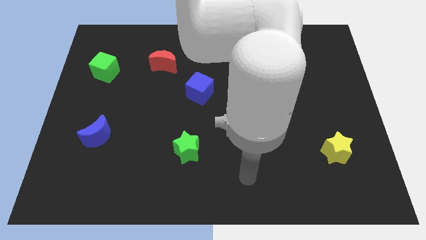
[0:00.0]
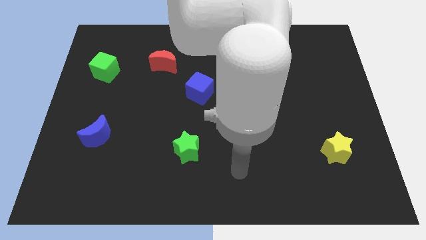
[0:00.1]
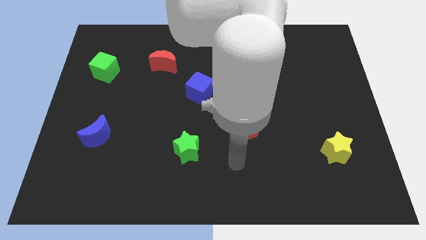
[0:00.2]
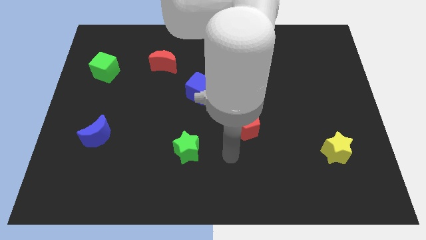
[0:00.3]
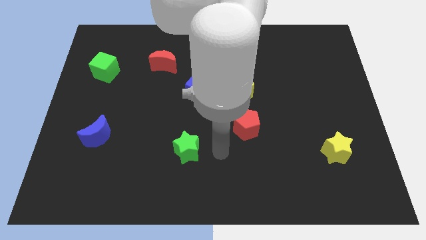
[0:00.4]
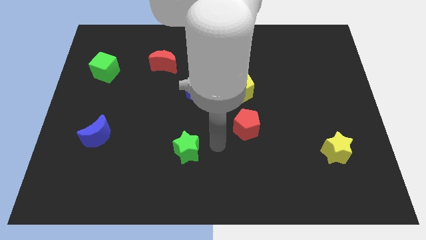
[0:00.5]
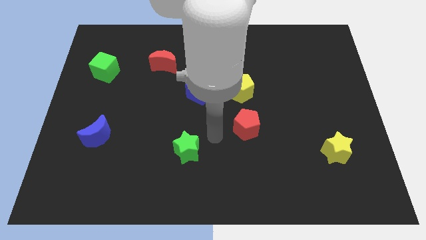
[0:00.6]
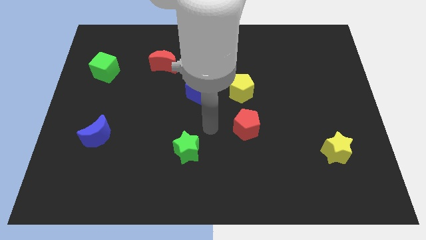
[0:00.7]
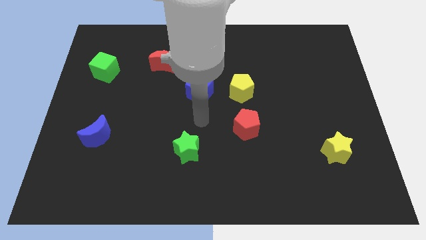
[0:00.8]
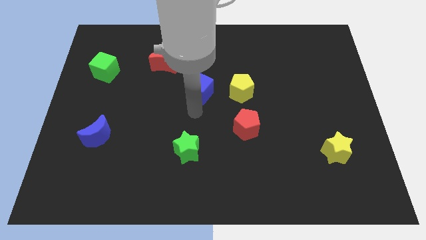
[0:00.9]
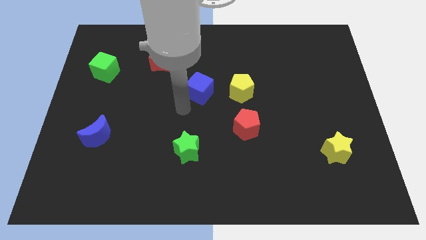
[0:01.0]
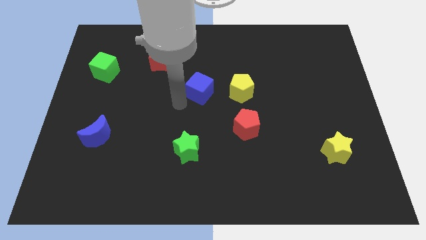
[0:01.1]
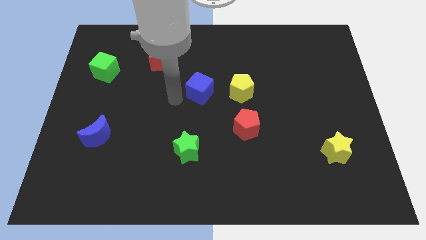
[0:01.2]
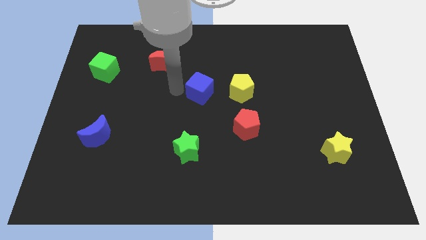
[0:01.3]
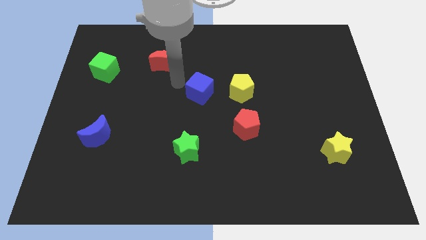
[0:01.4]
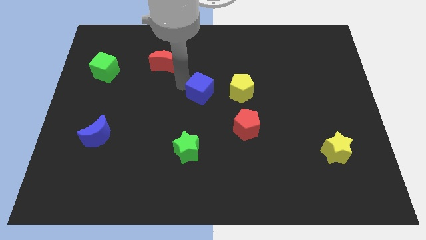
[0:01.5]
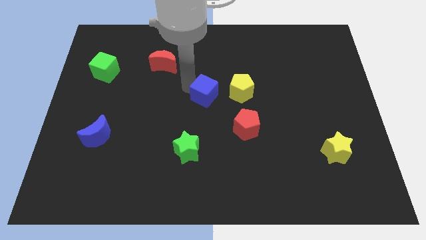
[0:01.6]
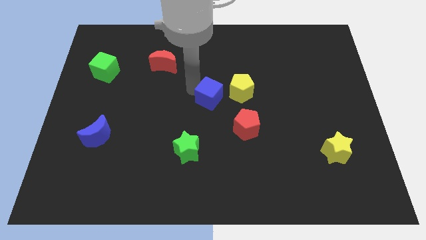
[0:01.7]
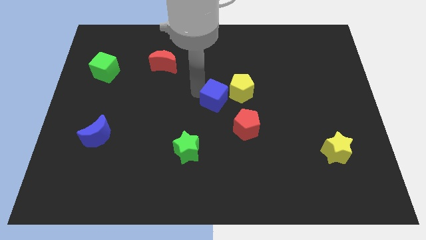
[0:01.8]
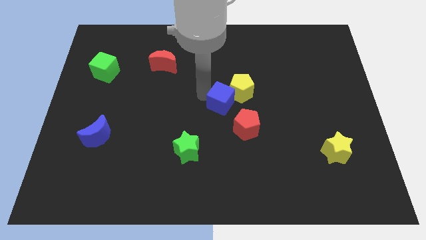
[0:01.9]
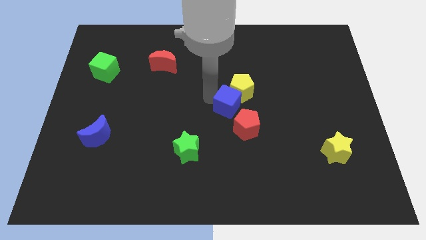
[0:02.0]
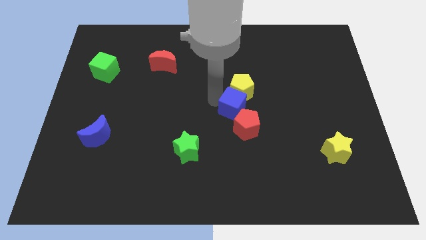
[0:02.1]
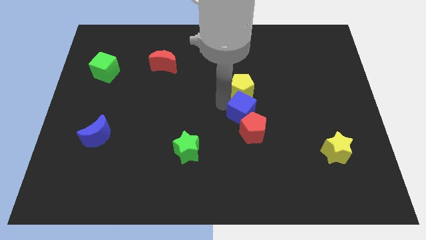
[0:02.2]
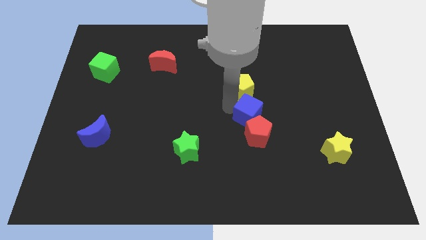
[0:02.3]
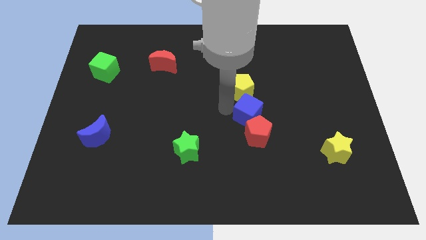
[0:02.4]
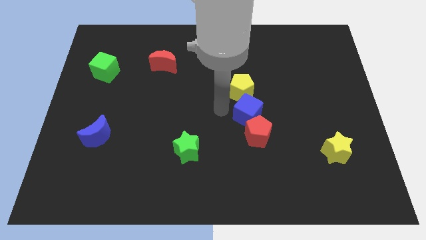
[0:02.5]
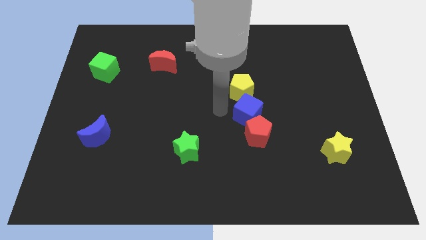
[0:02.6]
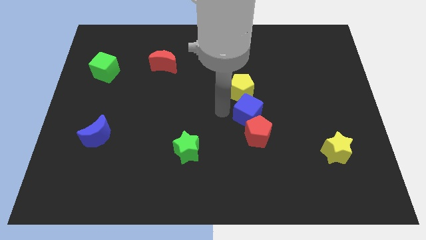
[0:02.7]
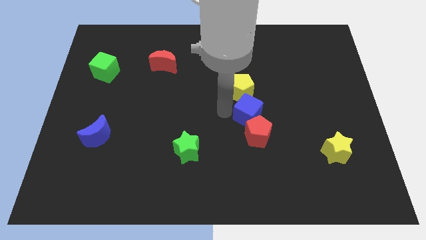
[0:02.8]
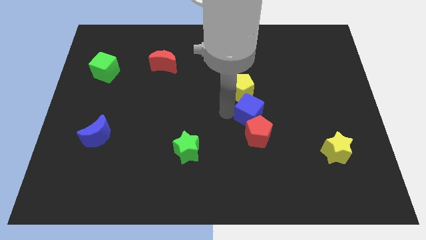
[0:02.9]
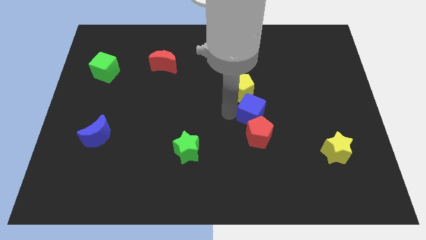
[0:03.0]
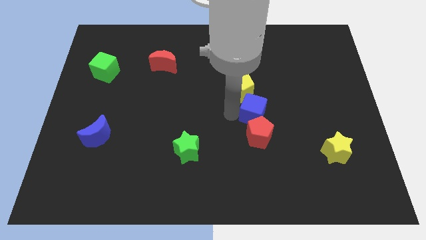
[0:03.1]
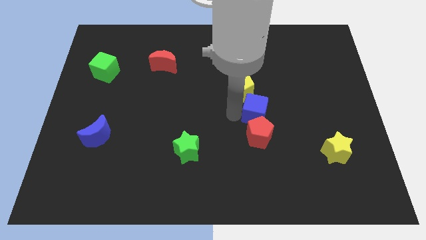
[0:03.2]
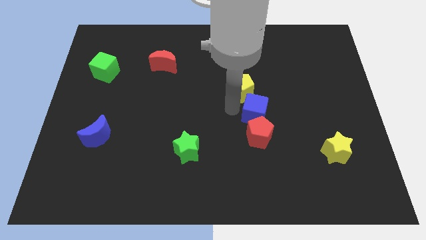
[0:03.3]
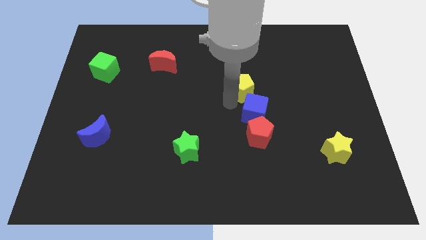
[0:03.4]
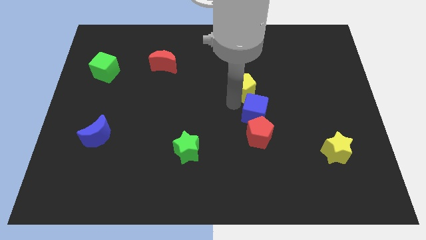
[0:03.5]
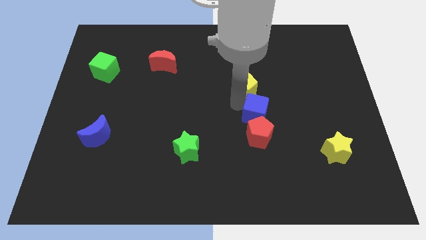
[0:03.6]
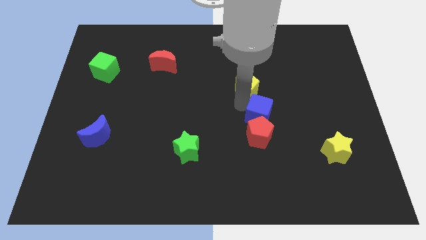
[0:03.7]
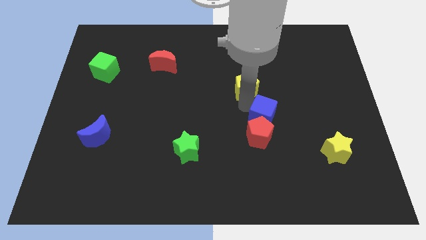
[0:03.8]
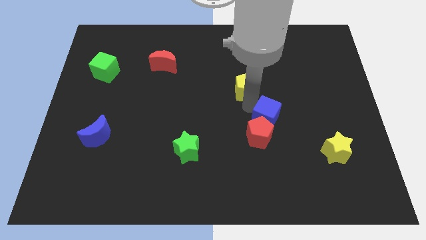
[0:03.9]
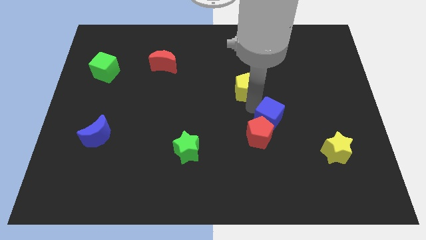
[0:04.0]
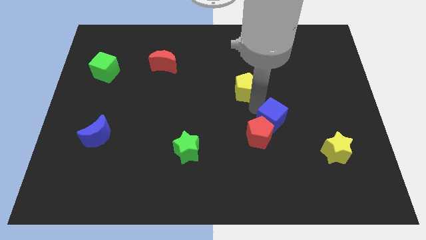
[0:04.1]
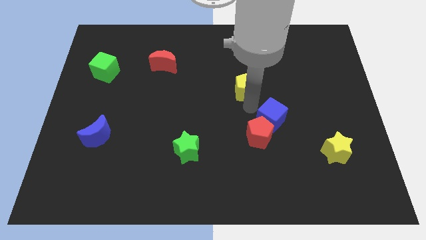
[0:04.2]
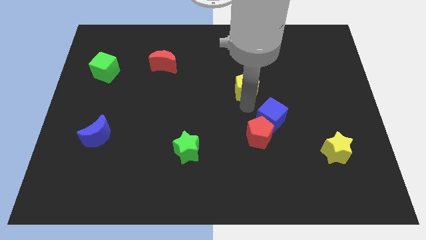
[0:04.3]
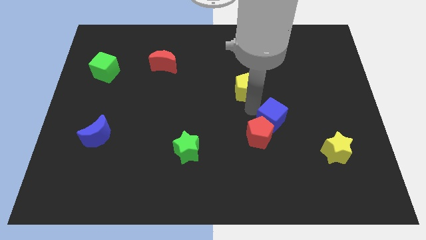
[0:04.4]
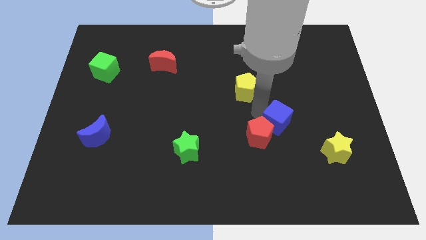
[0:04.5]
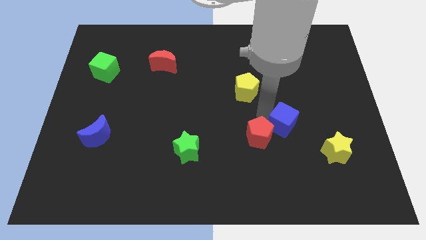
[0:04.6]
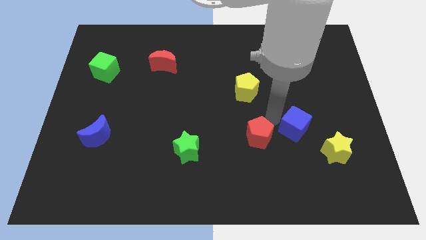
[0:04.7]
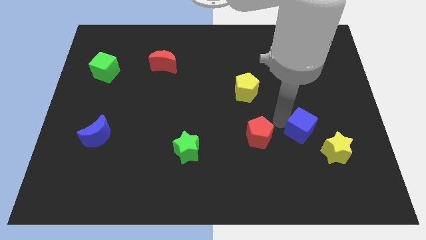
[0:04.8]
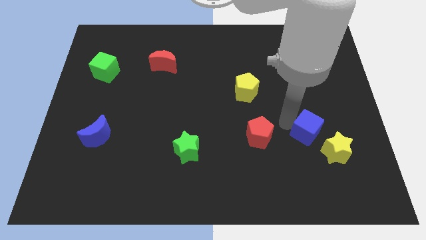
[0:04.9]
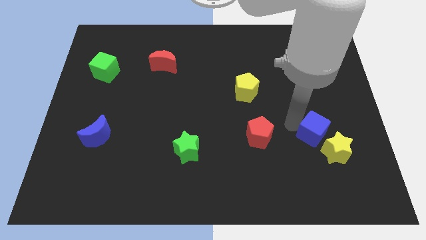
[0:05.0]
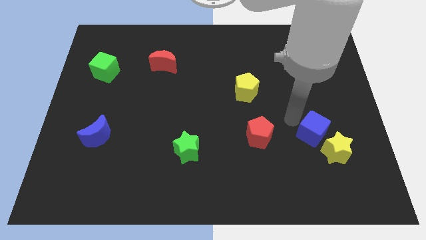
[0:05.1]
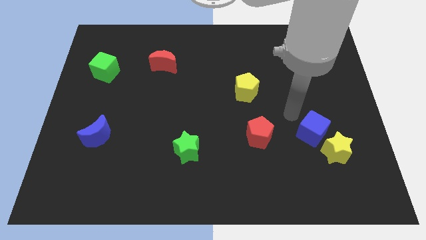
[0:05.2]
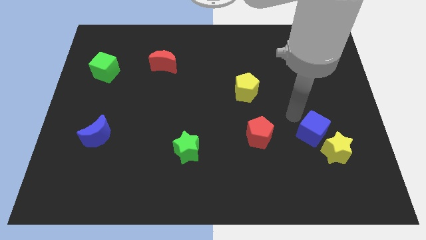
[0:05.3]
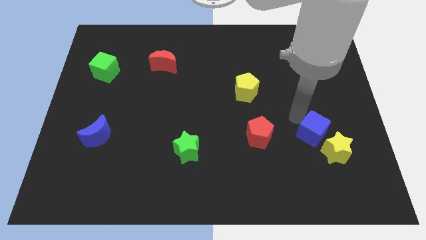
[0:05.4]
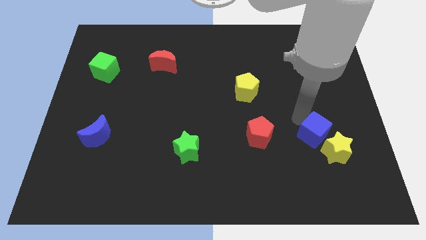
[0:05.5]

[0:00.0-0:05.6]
push the blue cube next to the yellow star

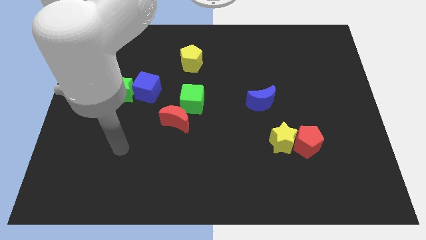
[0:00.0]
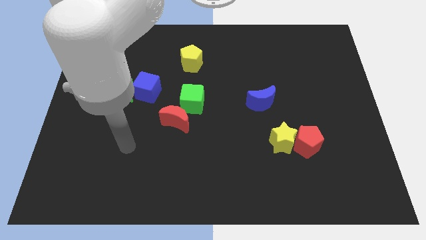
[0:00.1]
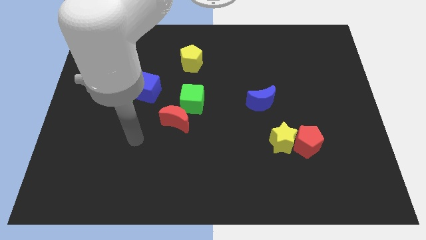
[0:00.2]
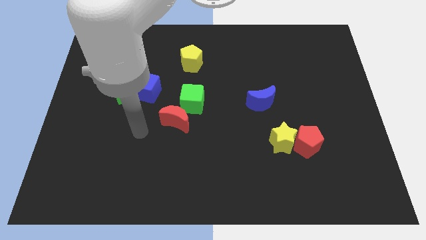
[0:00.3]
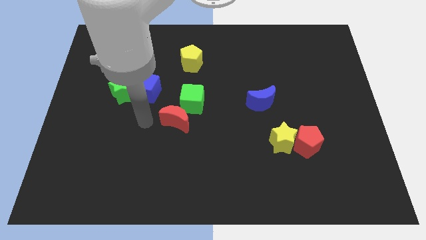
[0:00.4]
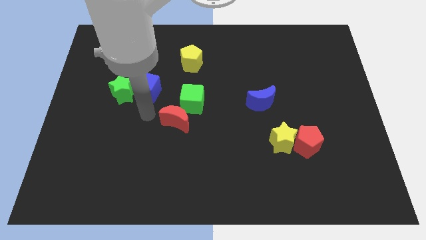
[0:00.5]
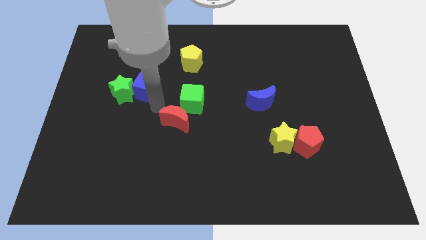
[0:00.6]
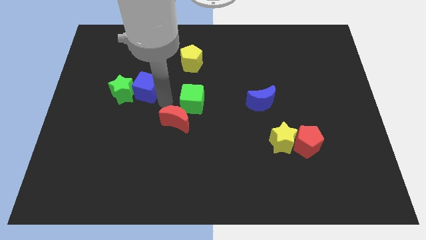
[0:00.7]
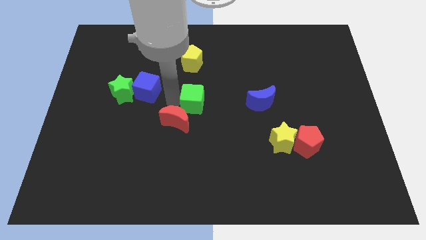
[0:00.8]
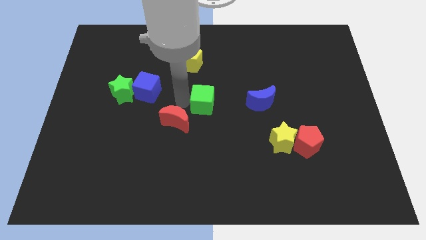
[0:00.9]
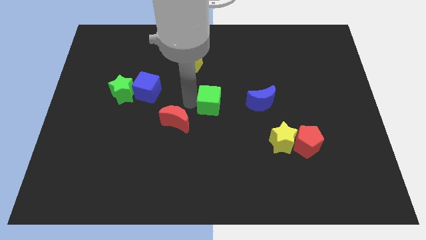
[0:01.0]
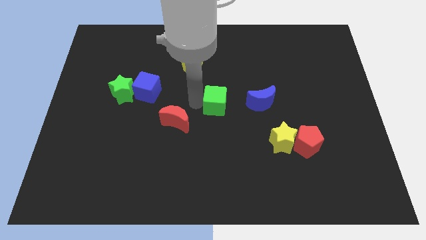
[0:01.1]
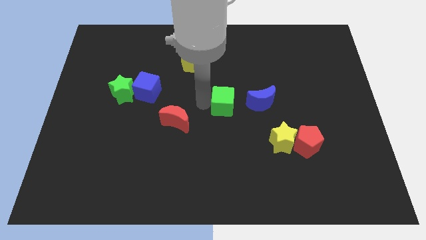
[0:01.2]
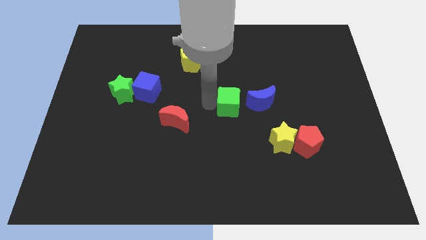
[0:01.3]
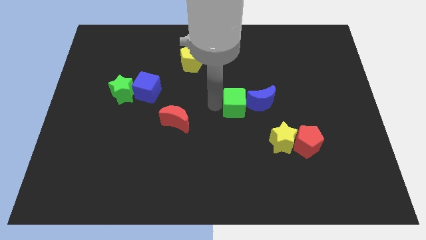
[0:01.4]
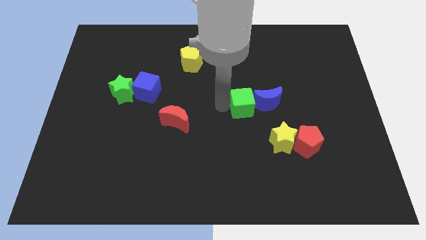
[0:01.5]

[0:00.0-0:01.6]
slide the green cube to the blue moon

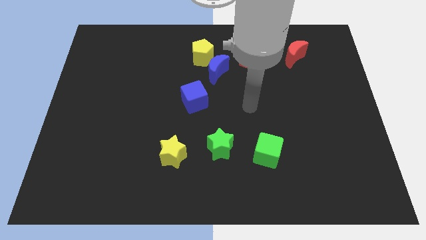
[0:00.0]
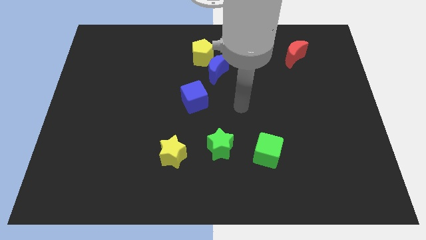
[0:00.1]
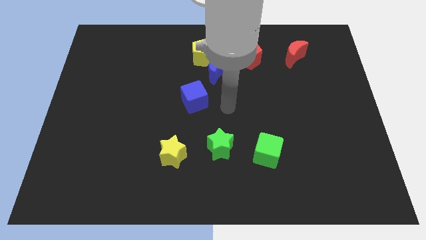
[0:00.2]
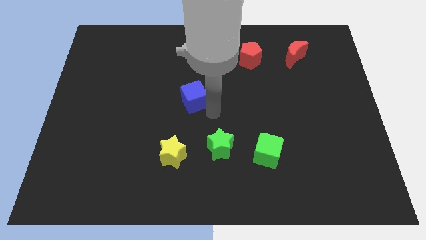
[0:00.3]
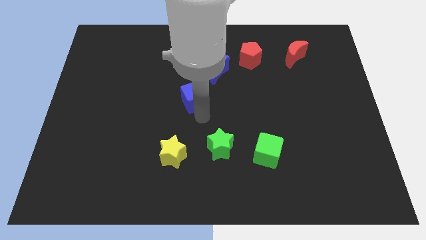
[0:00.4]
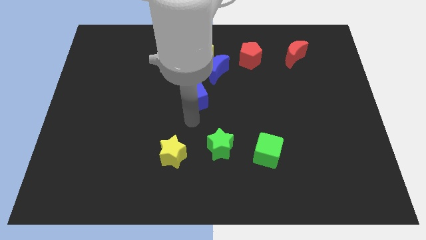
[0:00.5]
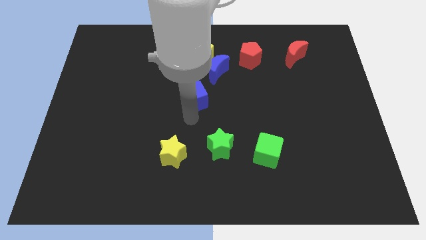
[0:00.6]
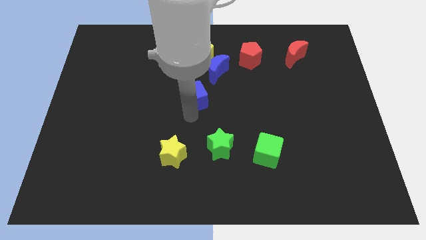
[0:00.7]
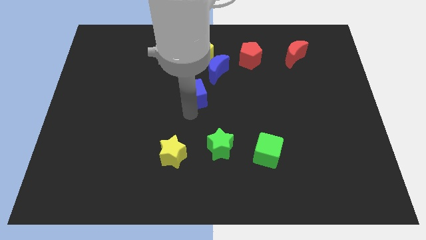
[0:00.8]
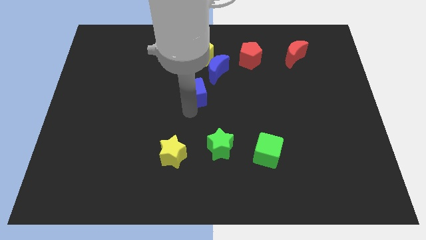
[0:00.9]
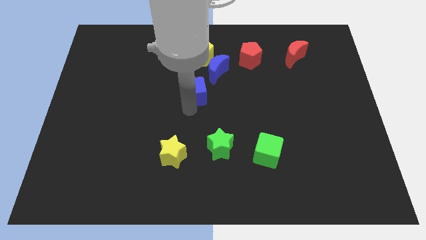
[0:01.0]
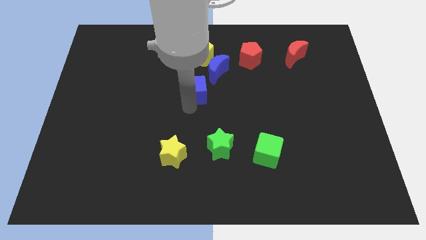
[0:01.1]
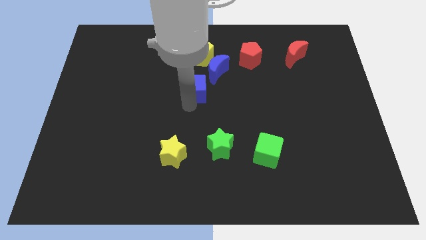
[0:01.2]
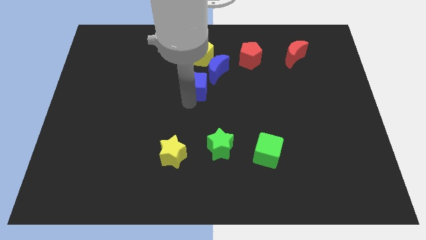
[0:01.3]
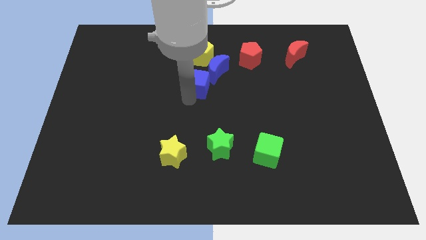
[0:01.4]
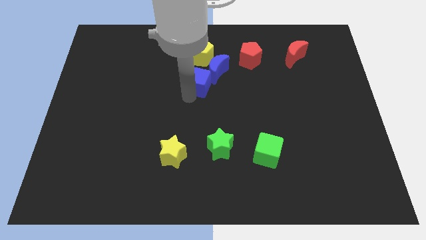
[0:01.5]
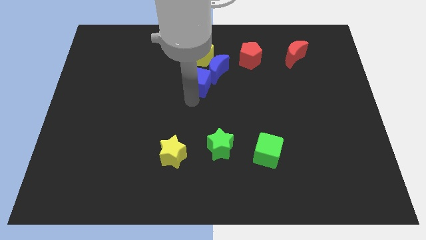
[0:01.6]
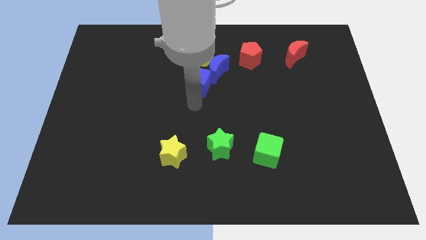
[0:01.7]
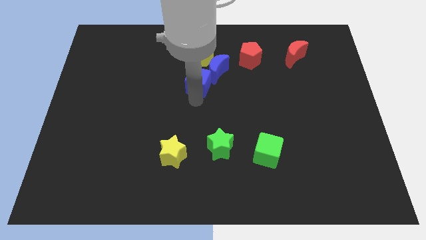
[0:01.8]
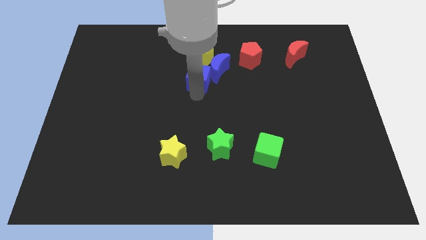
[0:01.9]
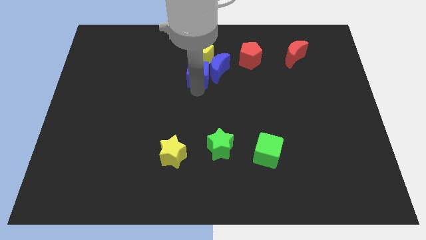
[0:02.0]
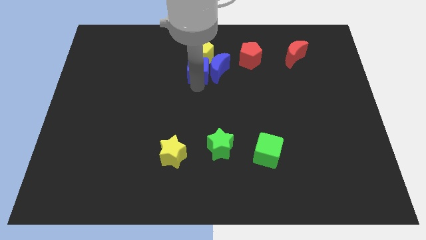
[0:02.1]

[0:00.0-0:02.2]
put the blue cube next to the yellow pentagon
